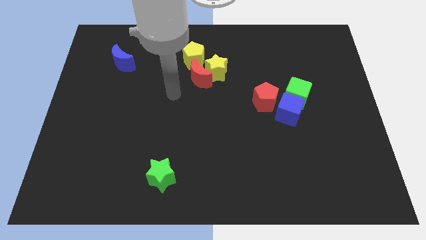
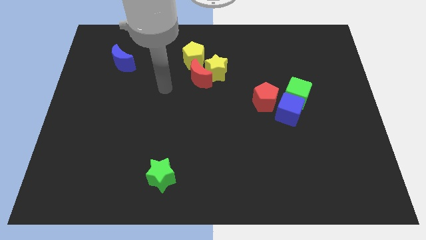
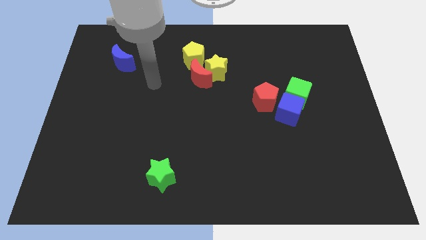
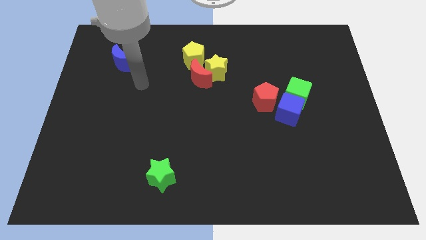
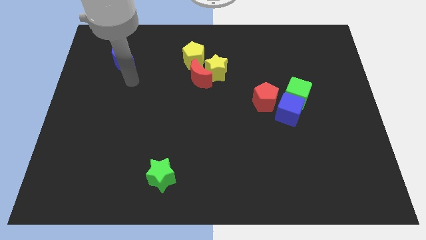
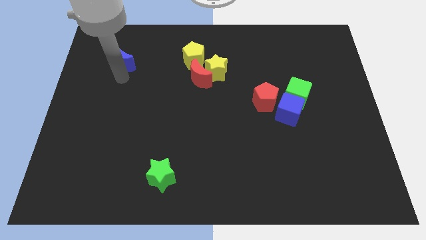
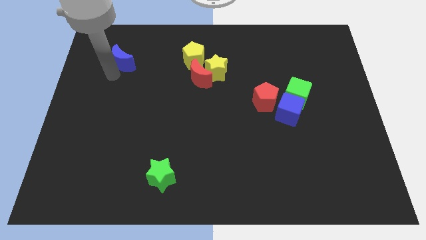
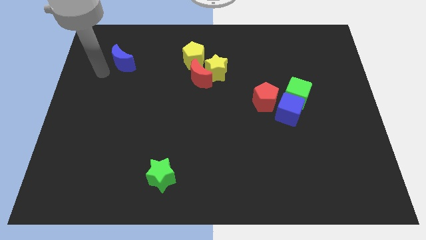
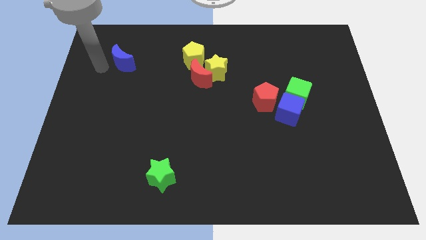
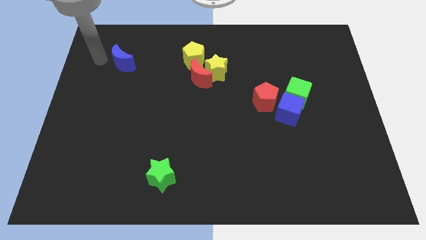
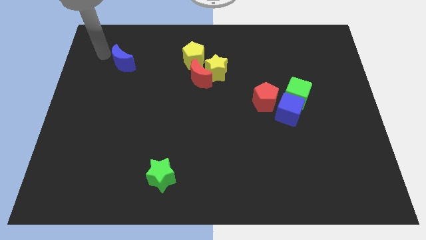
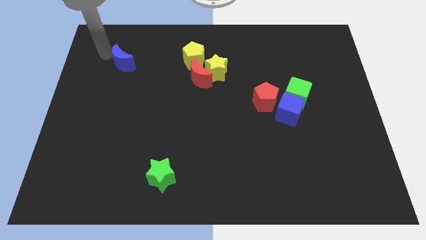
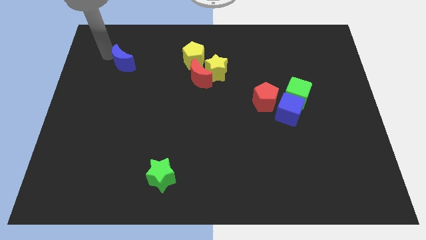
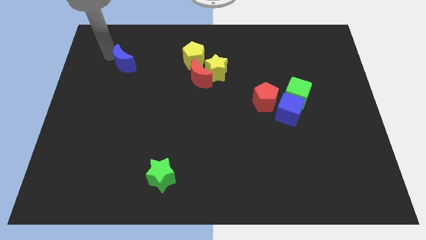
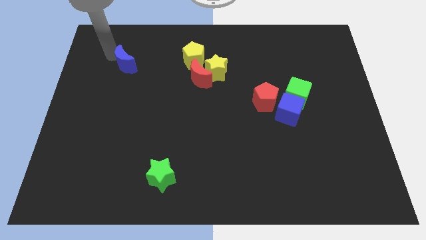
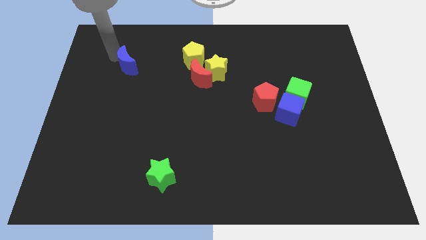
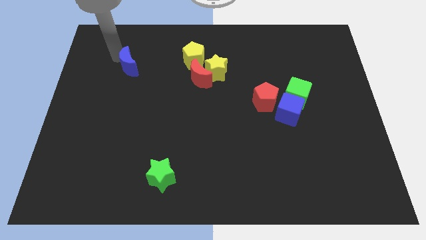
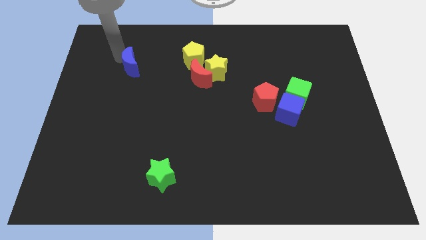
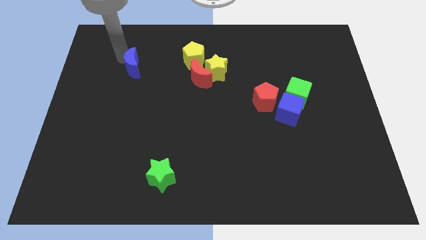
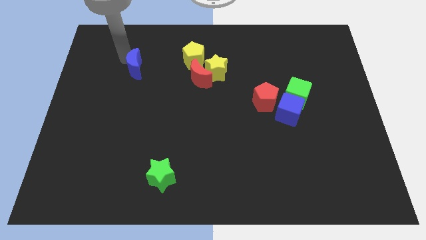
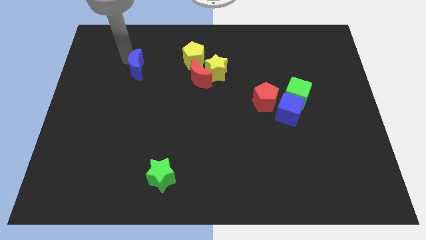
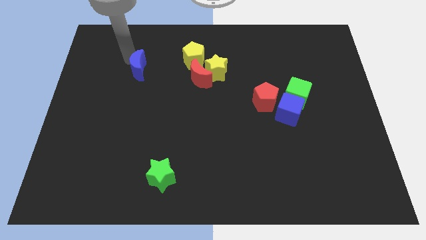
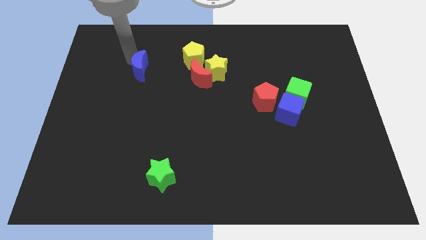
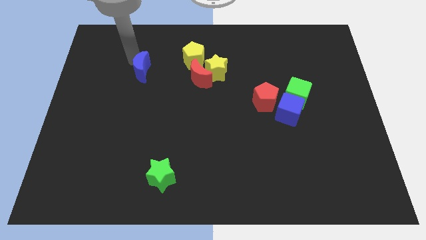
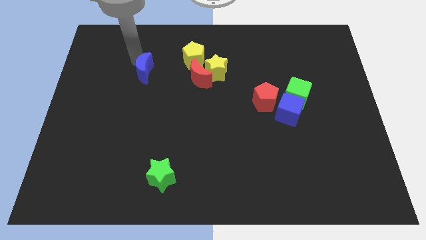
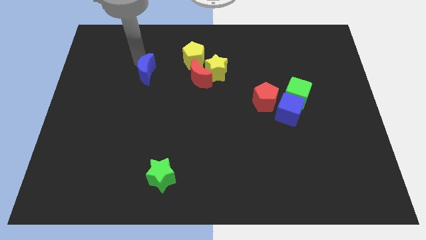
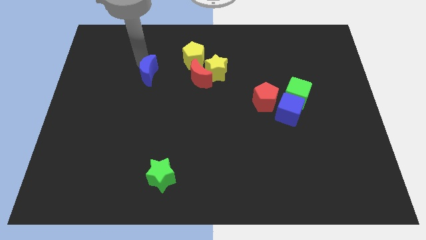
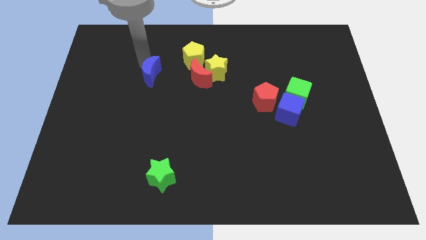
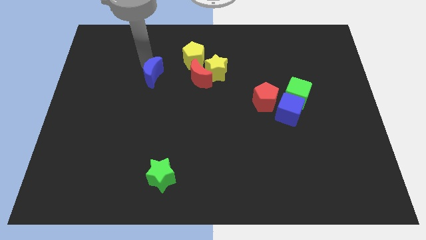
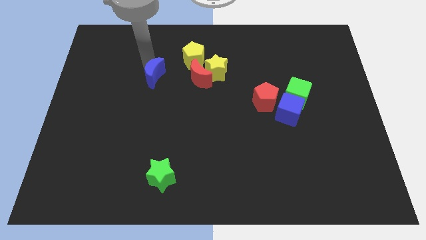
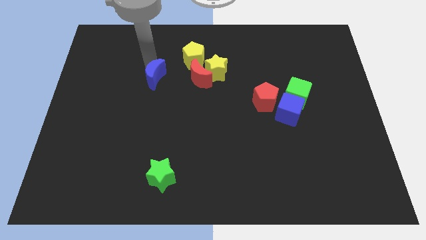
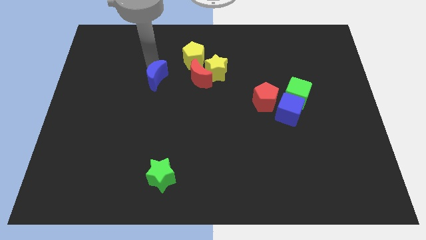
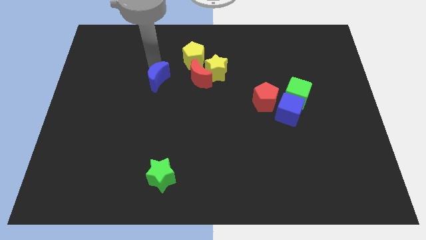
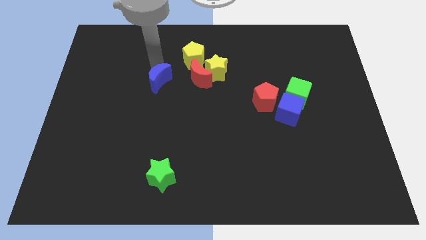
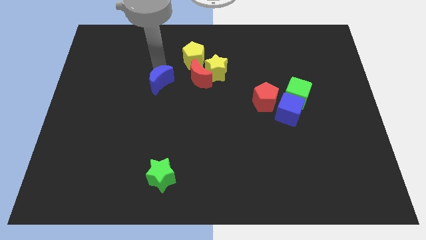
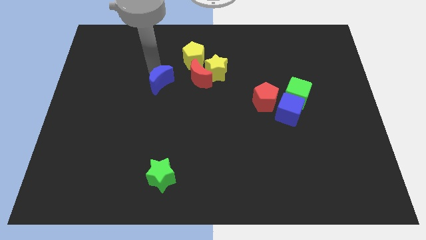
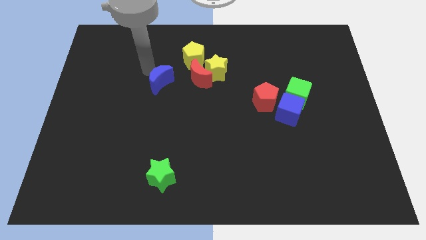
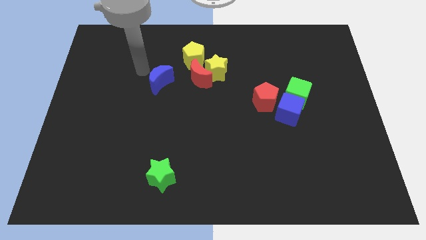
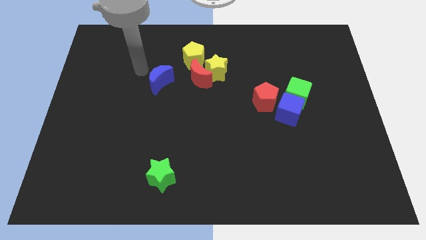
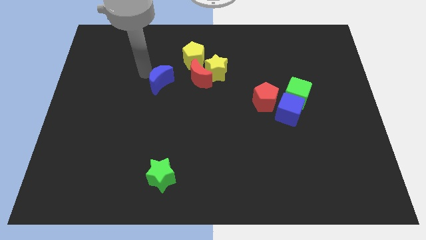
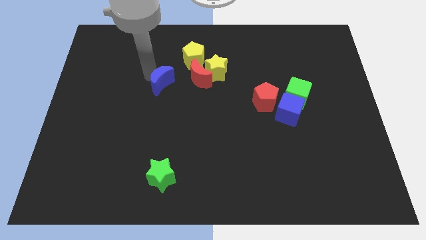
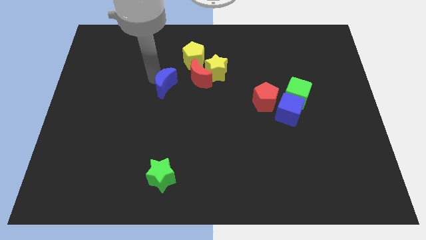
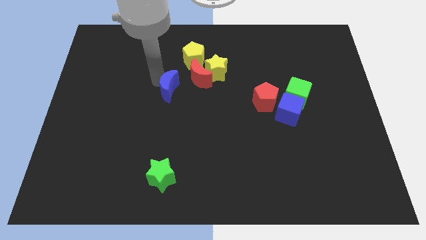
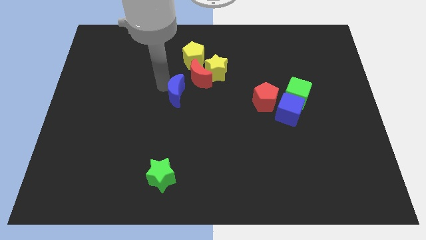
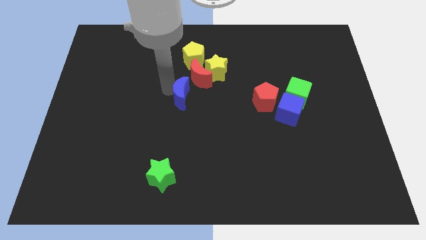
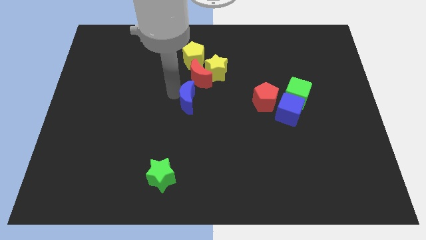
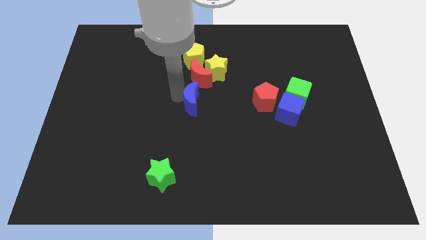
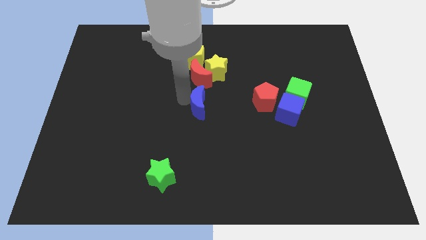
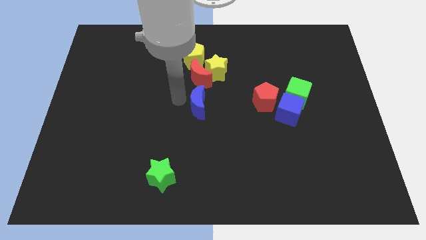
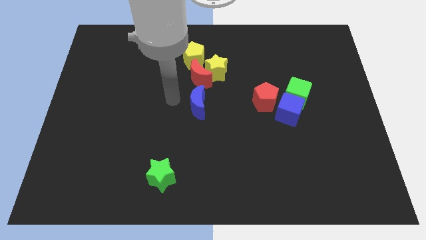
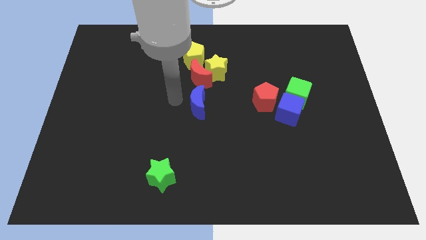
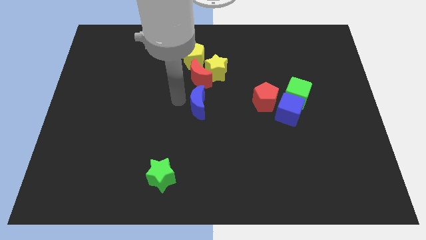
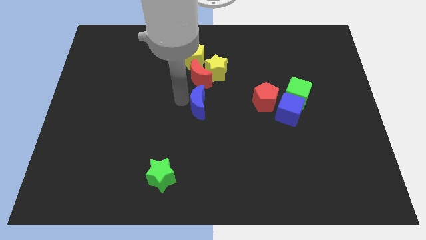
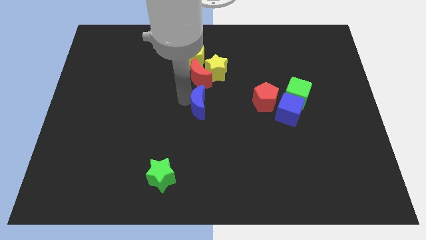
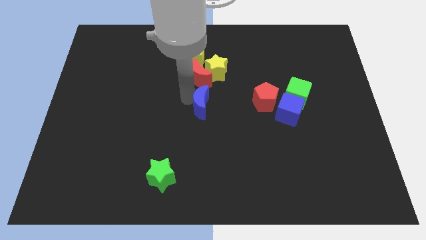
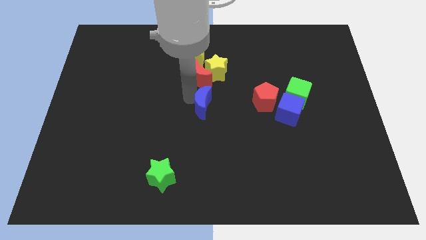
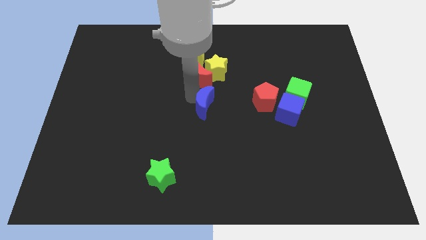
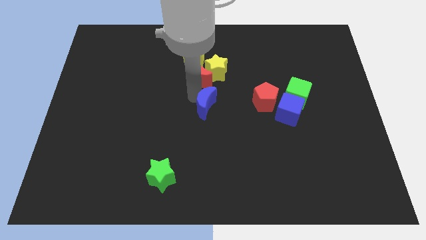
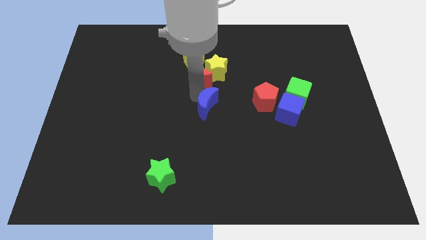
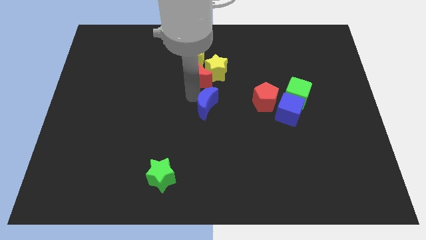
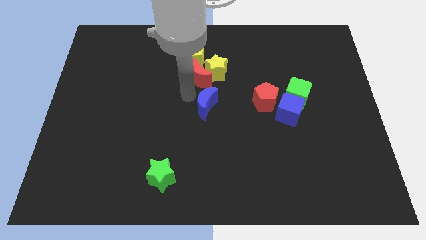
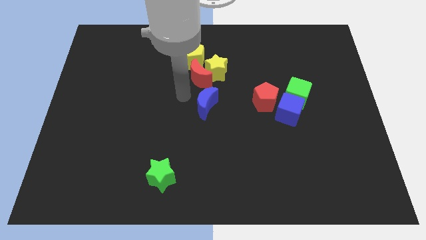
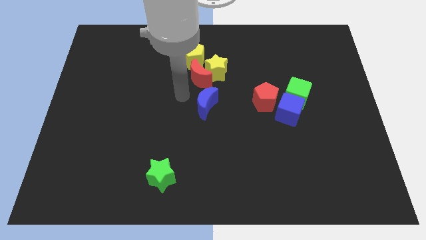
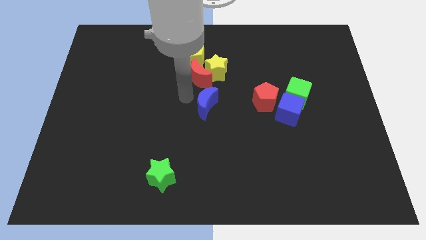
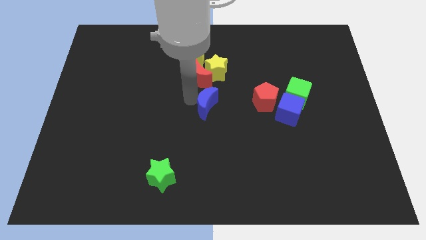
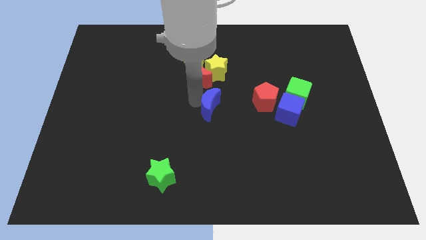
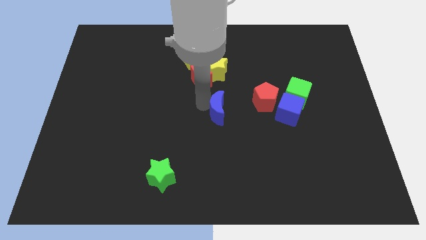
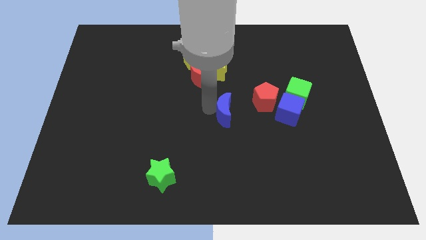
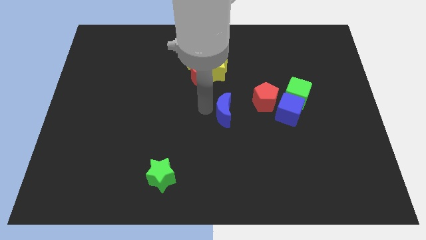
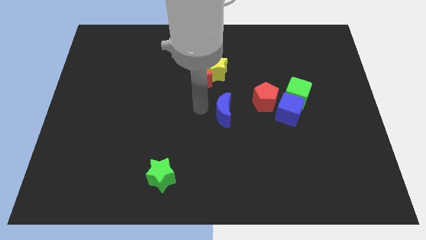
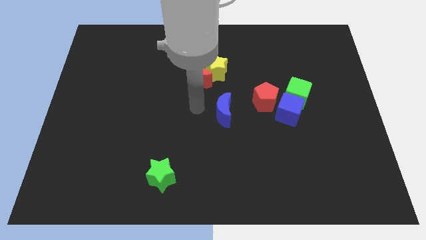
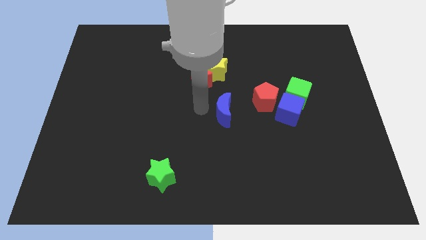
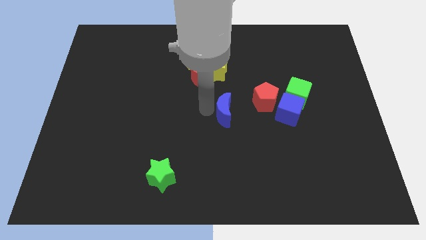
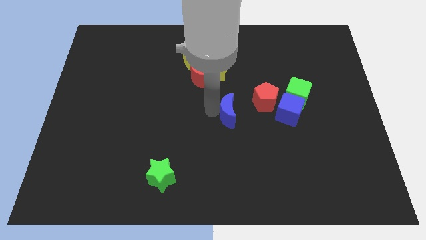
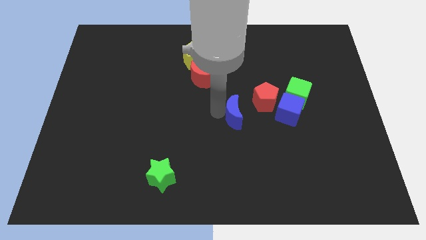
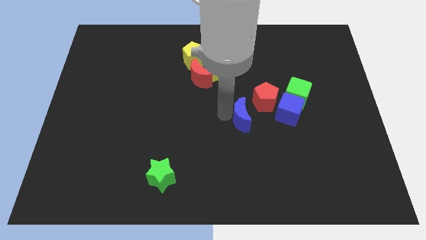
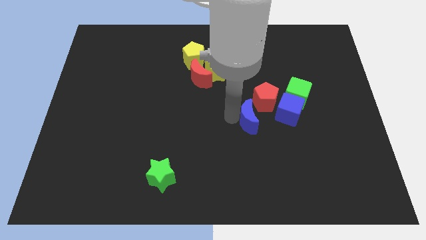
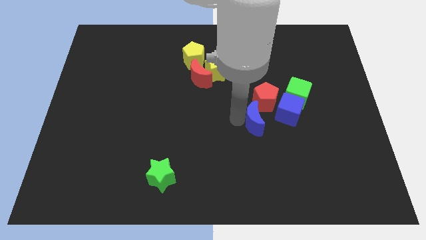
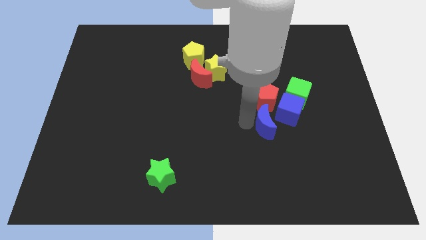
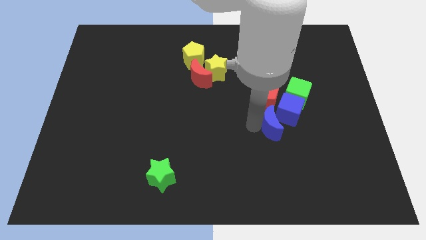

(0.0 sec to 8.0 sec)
slide the blue moon next to the blue cube
